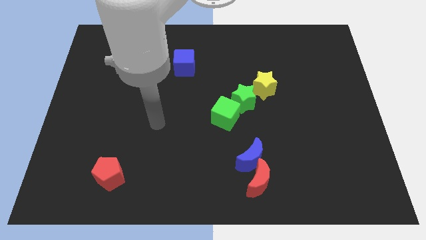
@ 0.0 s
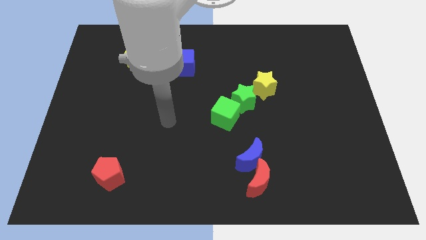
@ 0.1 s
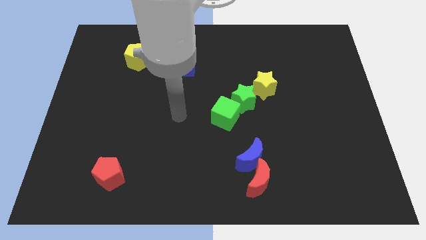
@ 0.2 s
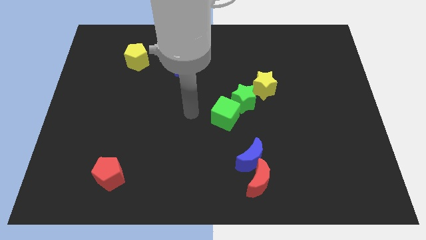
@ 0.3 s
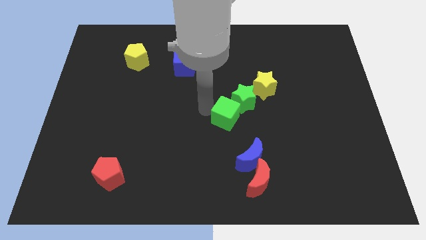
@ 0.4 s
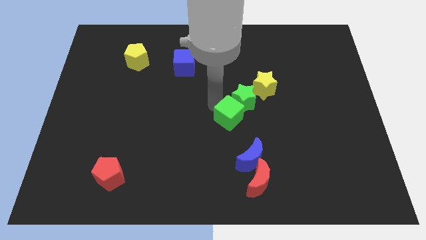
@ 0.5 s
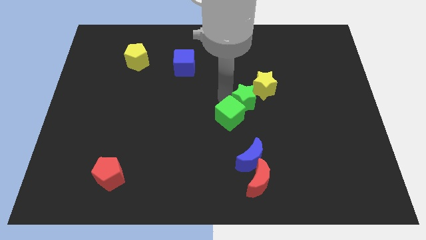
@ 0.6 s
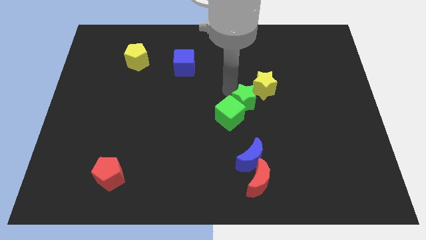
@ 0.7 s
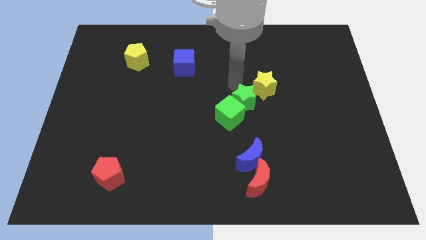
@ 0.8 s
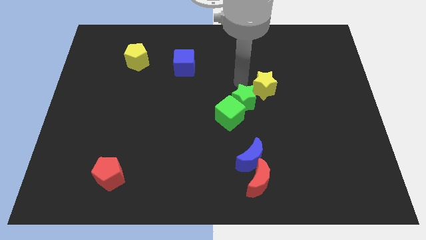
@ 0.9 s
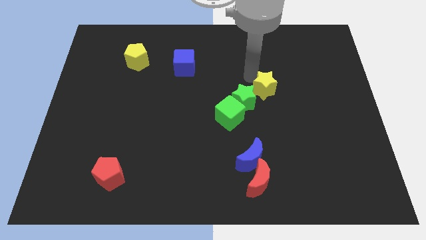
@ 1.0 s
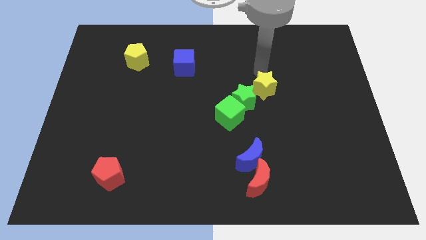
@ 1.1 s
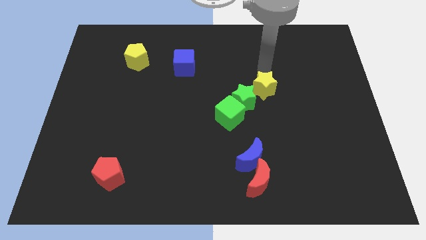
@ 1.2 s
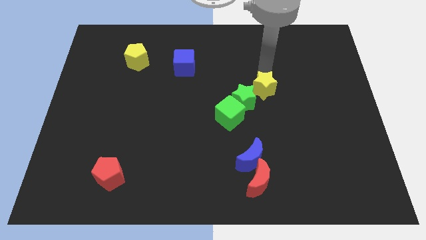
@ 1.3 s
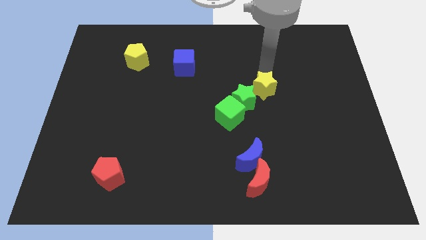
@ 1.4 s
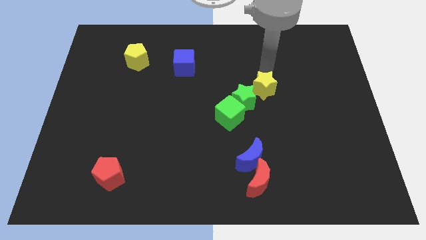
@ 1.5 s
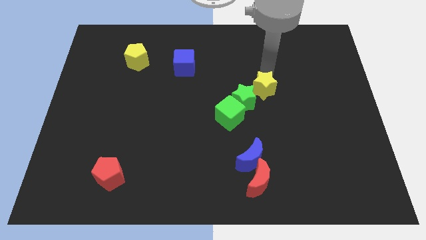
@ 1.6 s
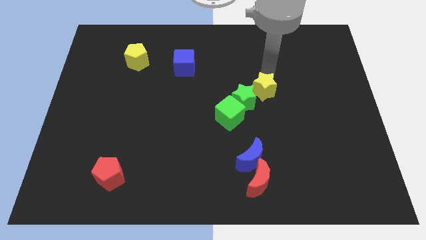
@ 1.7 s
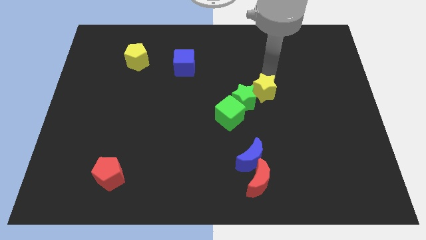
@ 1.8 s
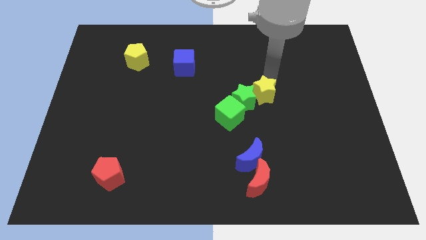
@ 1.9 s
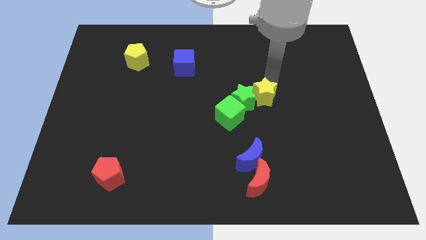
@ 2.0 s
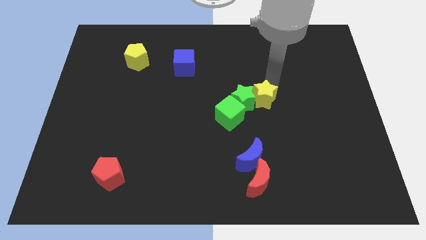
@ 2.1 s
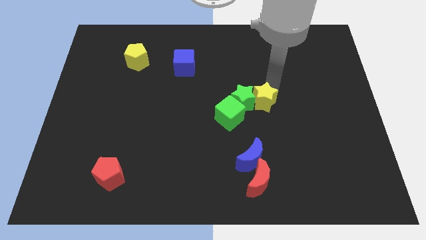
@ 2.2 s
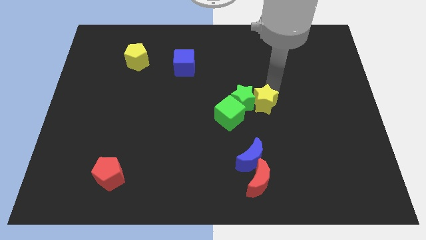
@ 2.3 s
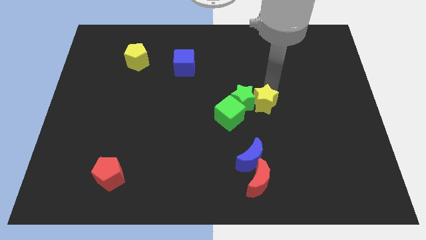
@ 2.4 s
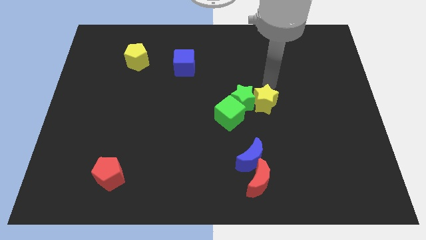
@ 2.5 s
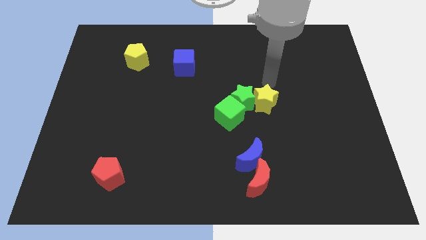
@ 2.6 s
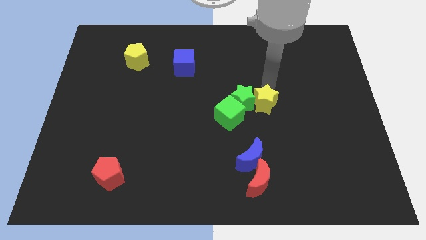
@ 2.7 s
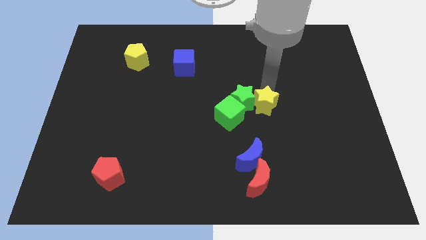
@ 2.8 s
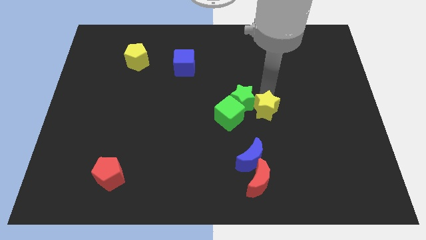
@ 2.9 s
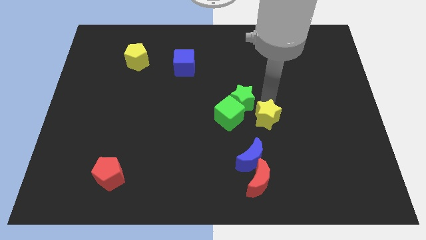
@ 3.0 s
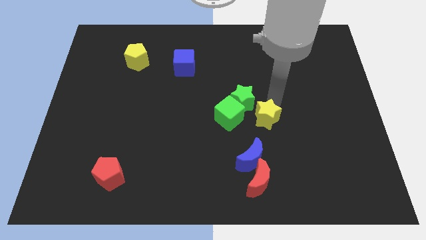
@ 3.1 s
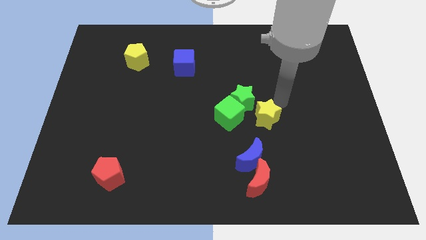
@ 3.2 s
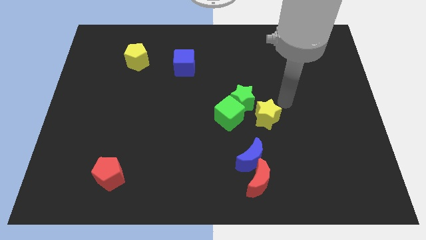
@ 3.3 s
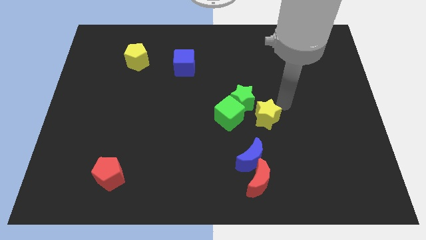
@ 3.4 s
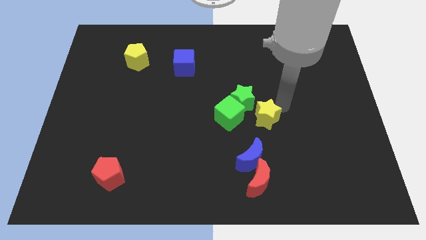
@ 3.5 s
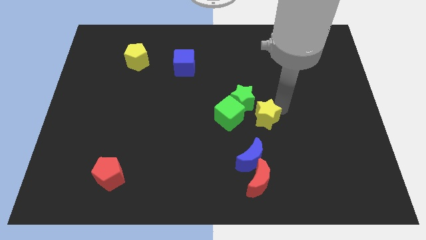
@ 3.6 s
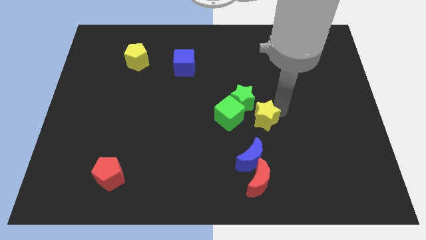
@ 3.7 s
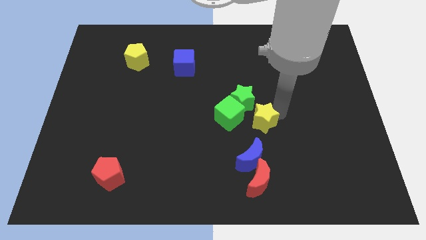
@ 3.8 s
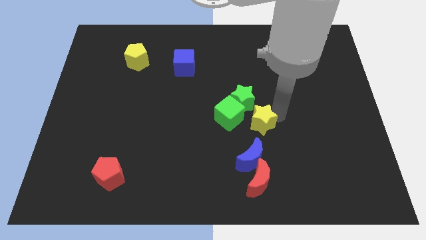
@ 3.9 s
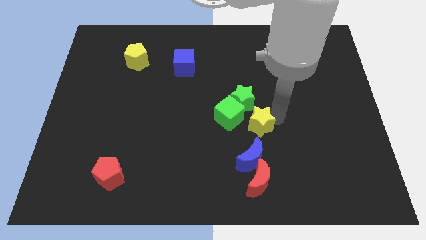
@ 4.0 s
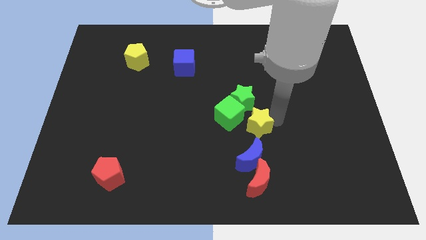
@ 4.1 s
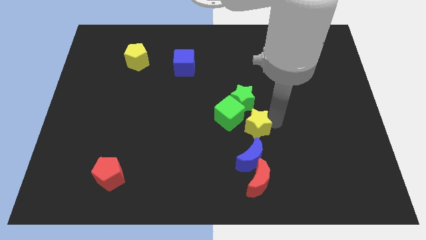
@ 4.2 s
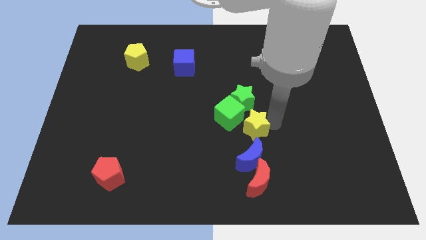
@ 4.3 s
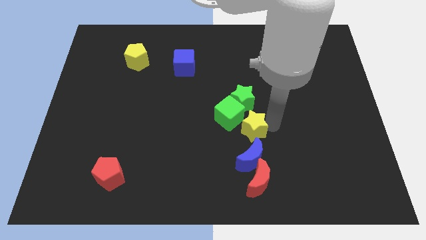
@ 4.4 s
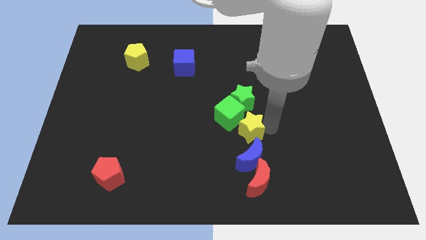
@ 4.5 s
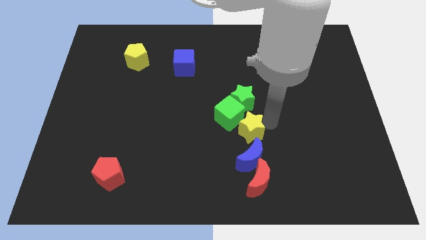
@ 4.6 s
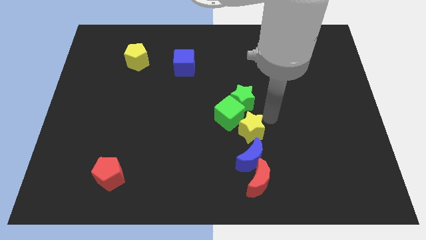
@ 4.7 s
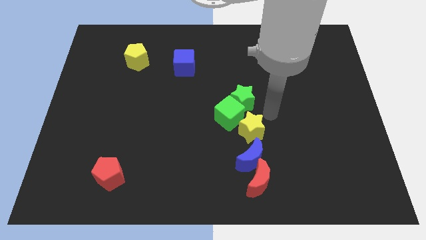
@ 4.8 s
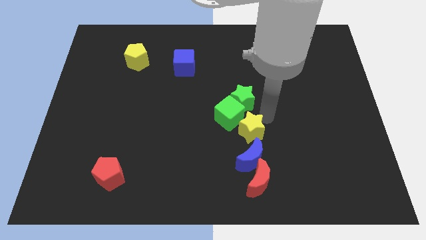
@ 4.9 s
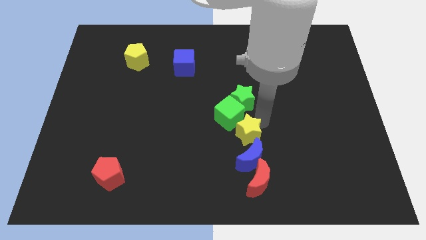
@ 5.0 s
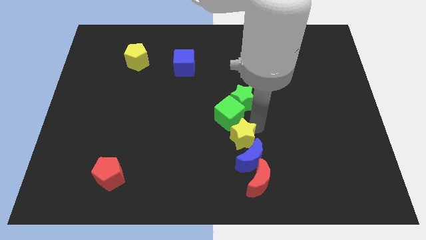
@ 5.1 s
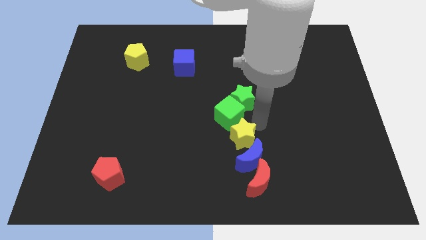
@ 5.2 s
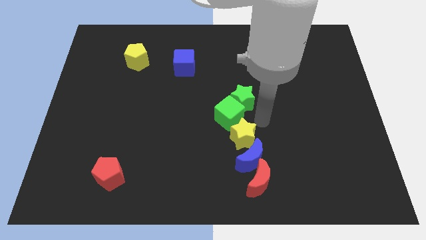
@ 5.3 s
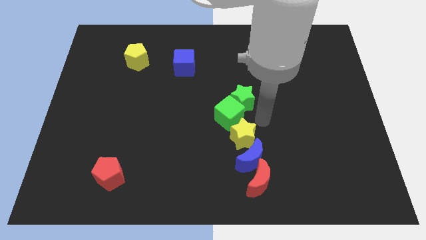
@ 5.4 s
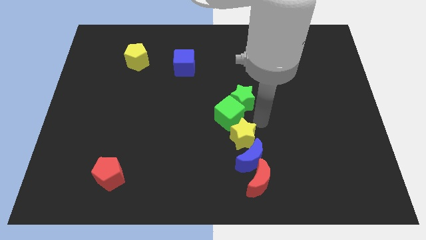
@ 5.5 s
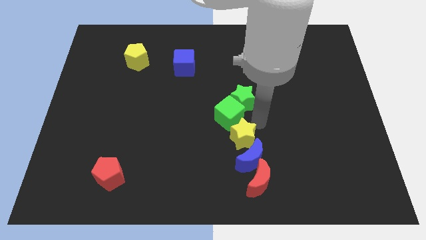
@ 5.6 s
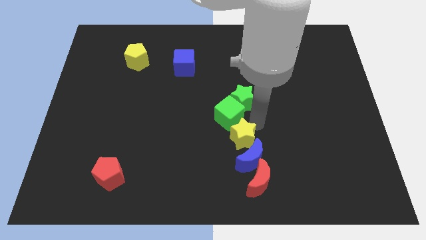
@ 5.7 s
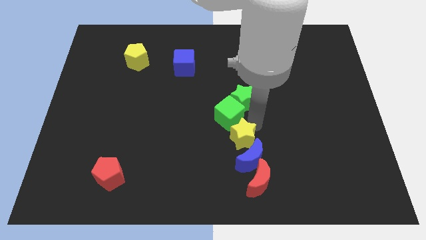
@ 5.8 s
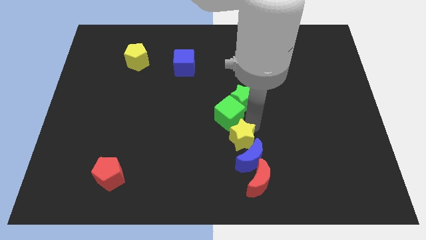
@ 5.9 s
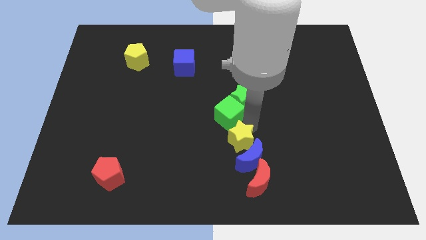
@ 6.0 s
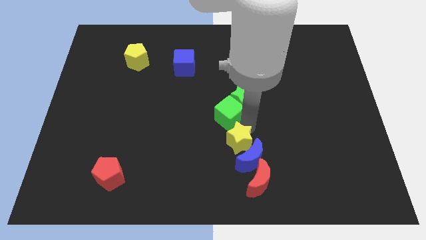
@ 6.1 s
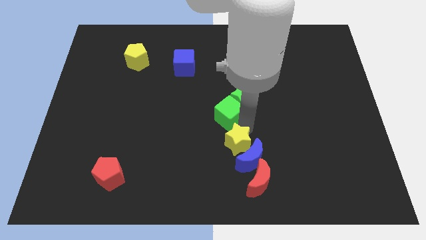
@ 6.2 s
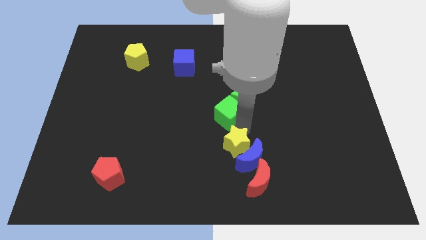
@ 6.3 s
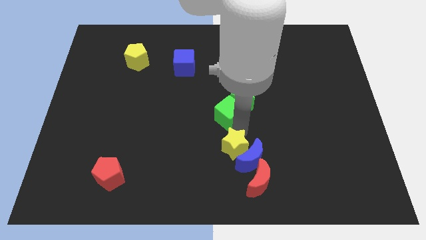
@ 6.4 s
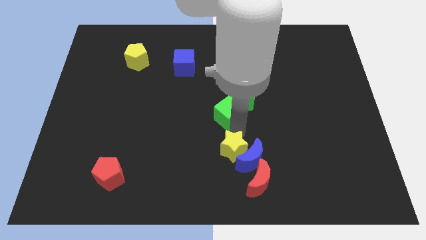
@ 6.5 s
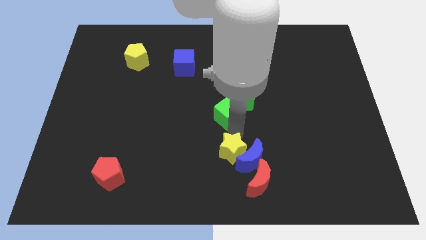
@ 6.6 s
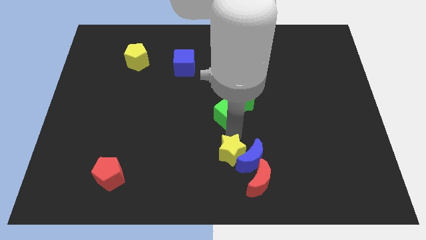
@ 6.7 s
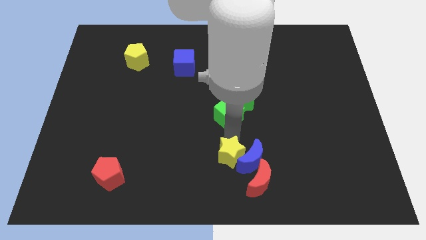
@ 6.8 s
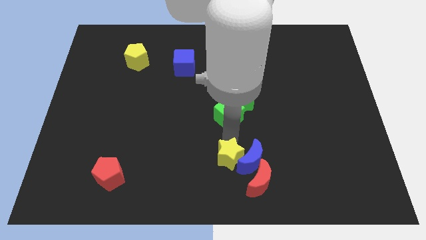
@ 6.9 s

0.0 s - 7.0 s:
move the yellow star to the bottom side

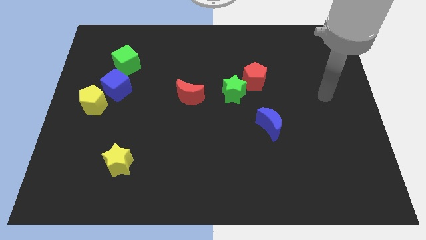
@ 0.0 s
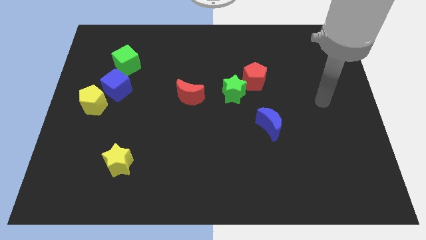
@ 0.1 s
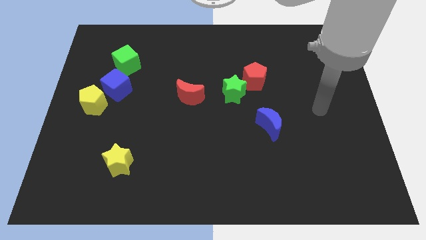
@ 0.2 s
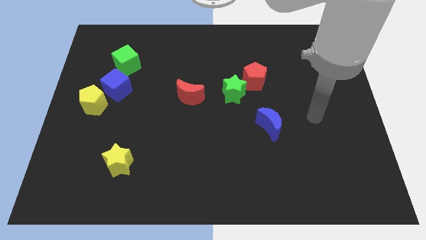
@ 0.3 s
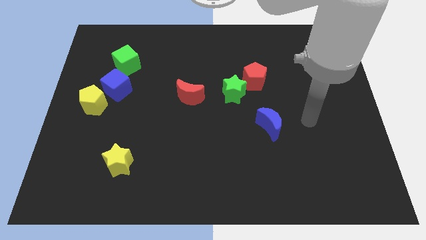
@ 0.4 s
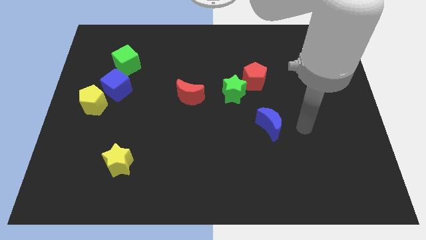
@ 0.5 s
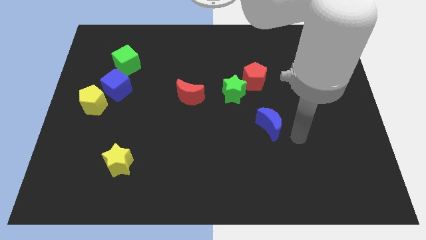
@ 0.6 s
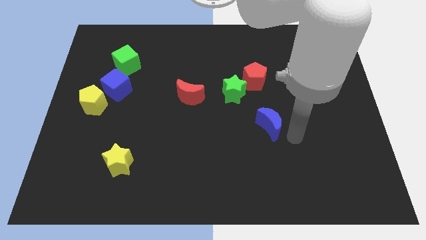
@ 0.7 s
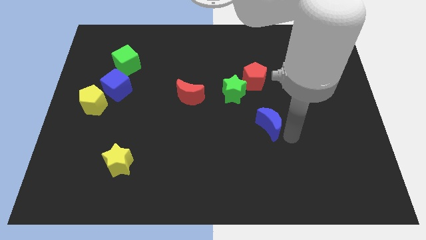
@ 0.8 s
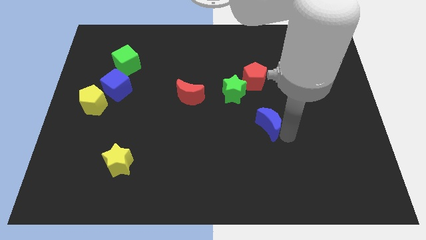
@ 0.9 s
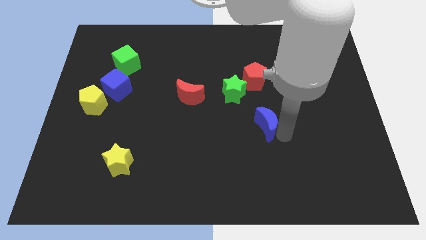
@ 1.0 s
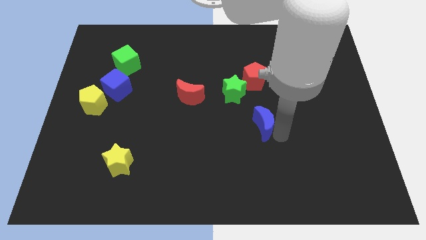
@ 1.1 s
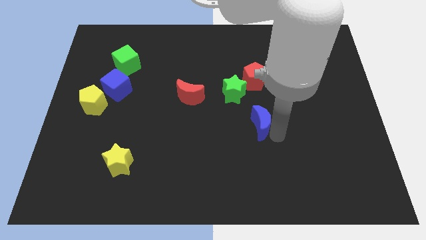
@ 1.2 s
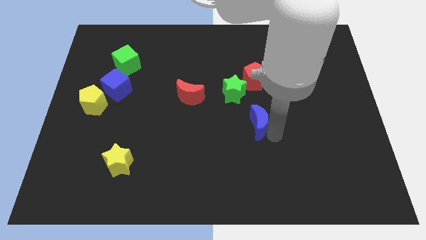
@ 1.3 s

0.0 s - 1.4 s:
push the blue moon to the center
